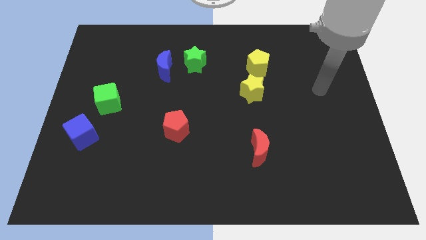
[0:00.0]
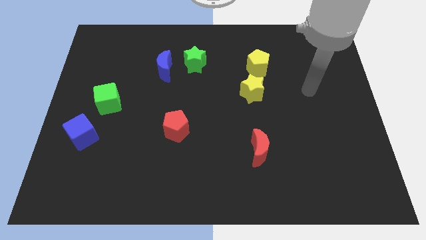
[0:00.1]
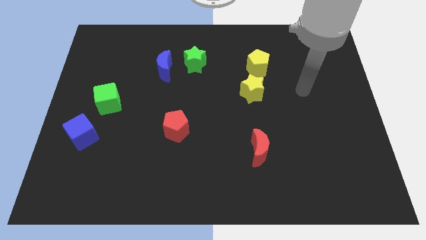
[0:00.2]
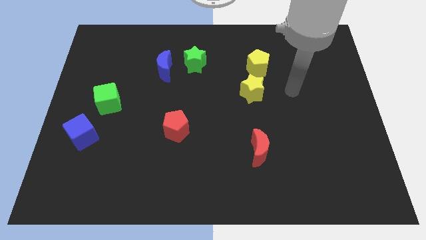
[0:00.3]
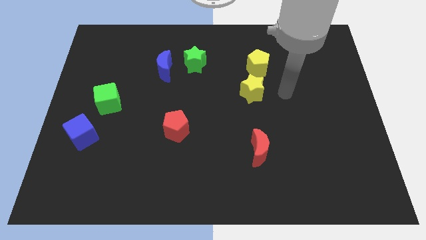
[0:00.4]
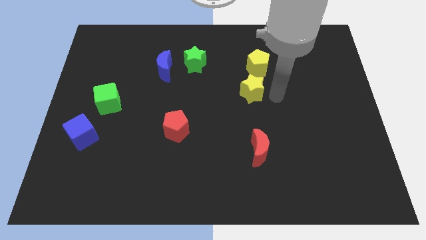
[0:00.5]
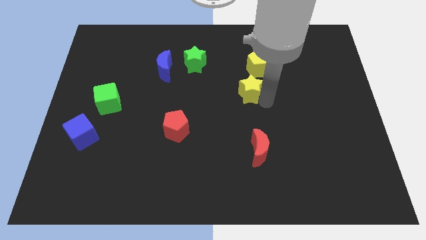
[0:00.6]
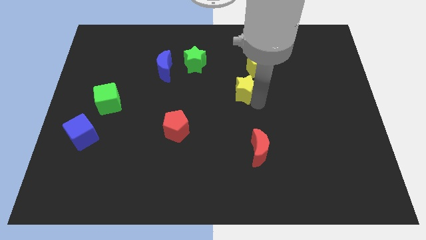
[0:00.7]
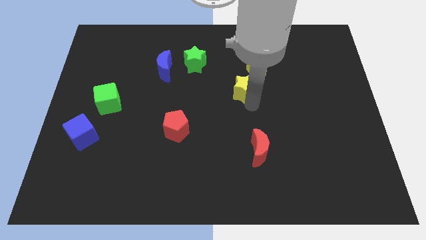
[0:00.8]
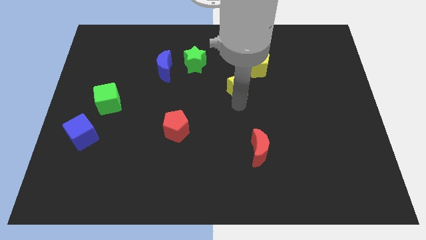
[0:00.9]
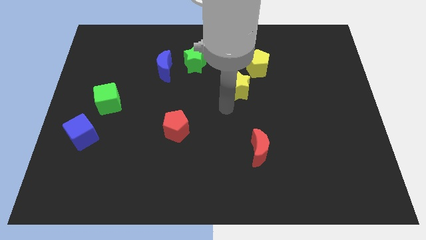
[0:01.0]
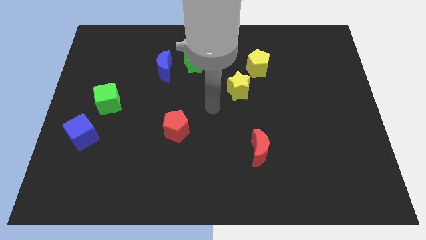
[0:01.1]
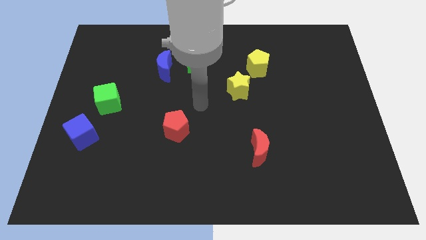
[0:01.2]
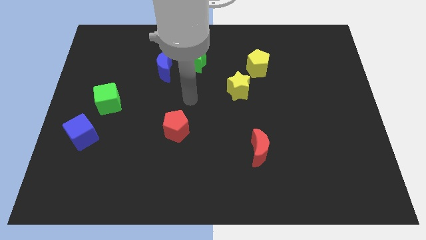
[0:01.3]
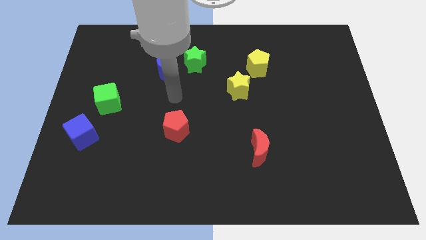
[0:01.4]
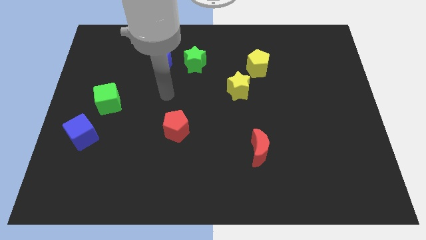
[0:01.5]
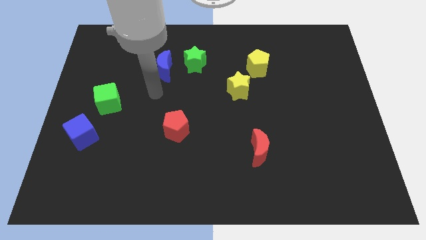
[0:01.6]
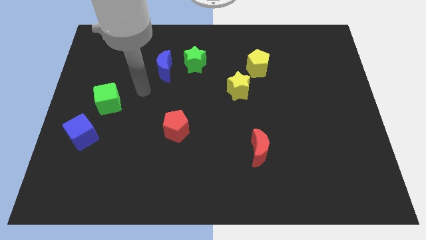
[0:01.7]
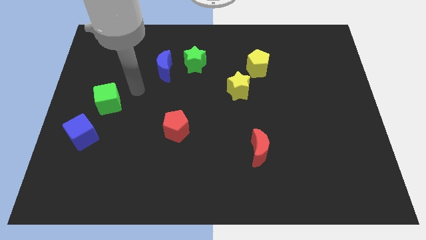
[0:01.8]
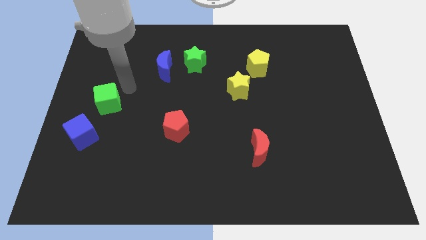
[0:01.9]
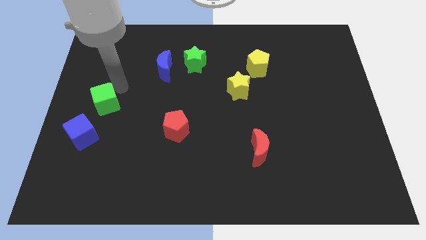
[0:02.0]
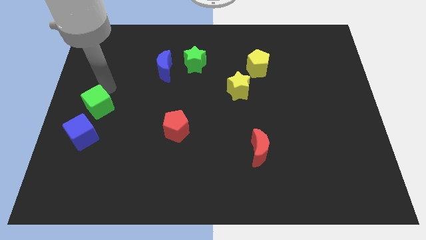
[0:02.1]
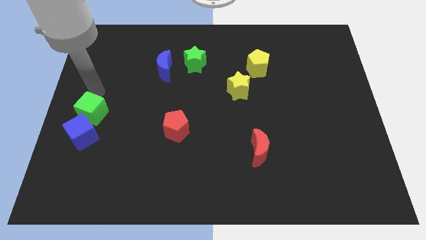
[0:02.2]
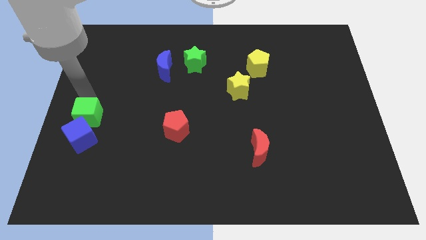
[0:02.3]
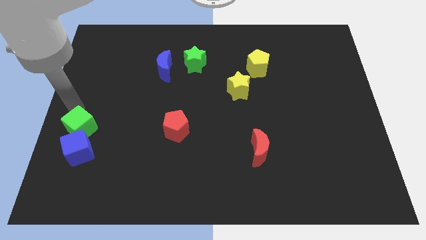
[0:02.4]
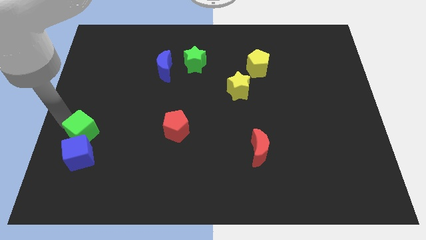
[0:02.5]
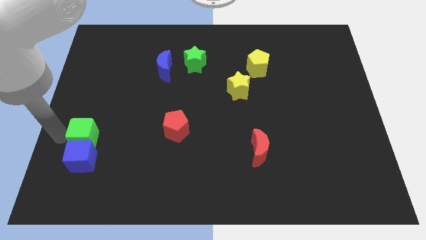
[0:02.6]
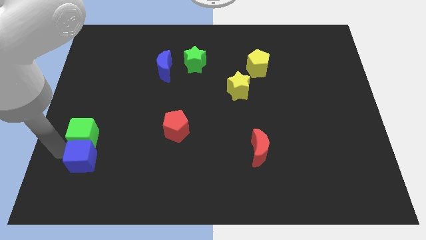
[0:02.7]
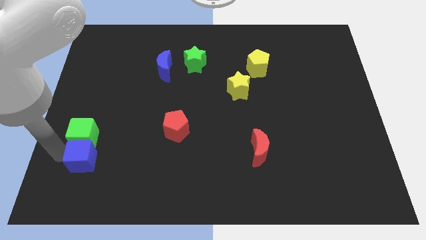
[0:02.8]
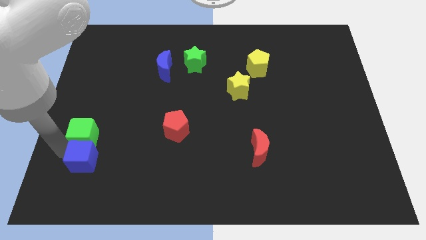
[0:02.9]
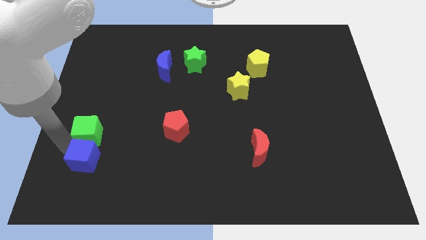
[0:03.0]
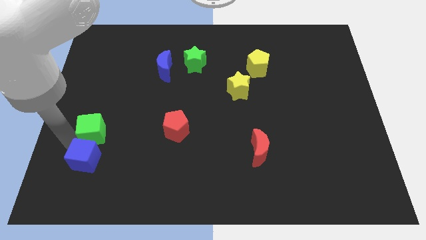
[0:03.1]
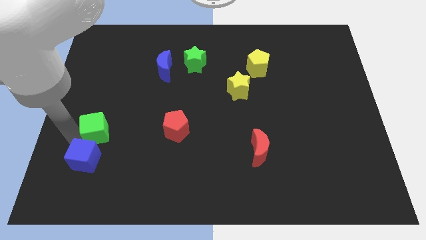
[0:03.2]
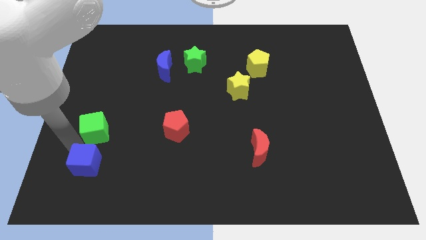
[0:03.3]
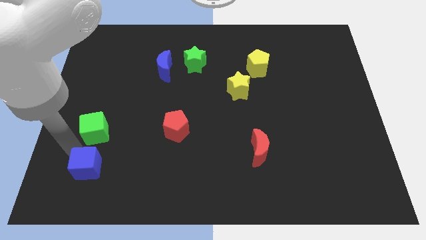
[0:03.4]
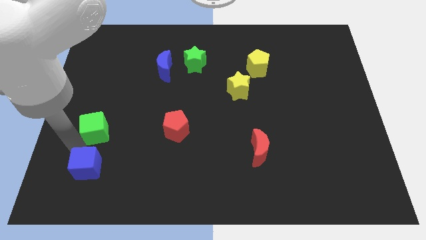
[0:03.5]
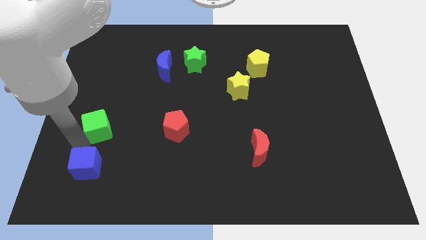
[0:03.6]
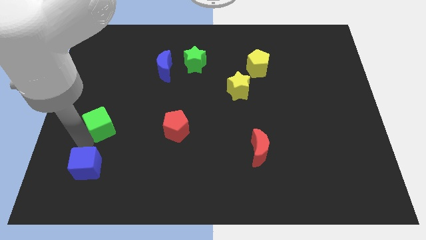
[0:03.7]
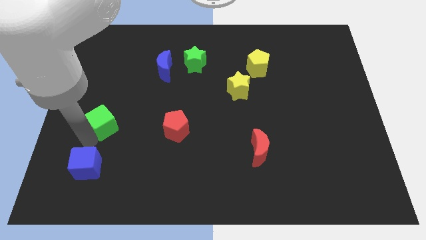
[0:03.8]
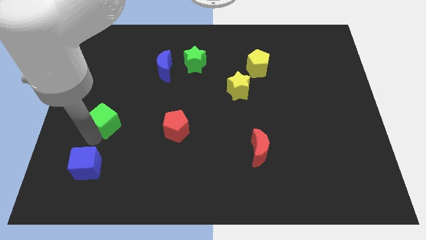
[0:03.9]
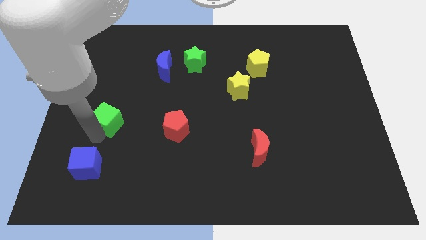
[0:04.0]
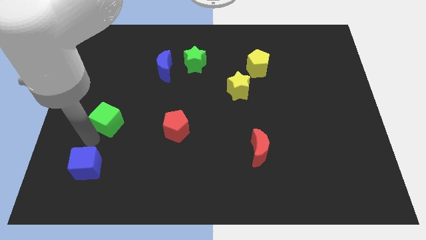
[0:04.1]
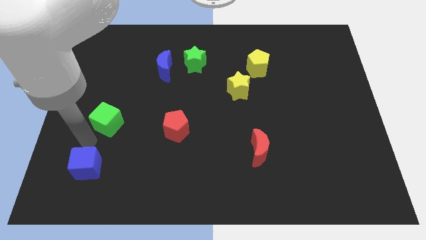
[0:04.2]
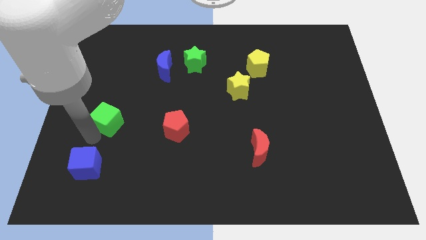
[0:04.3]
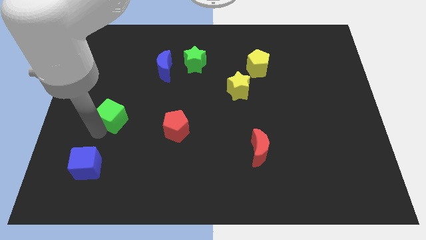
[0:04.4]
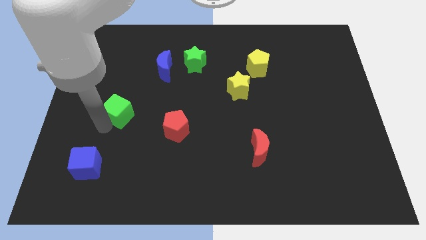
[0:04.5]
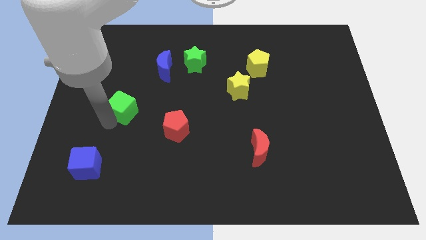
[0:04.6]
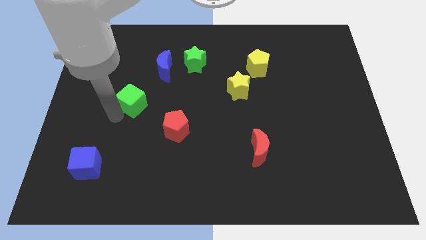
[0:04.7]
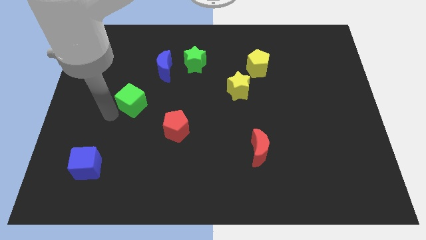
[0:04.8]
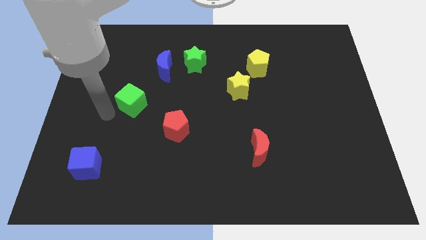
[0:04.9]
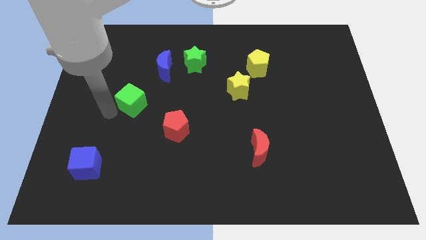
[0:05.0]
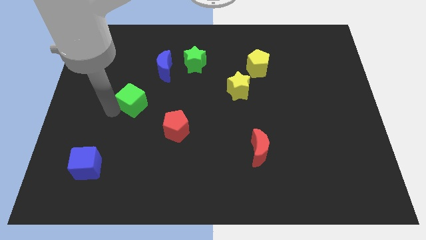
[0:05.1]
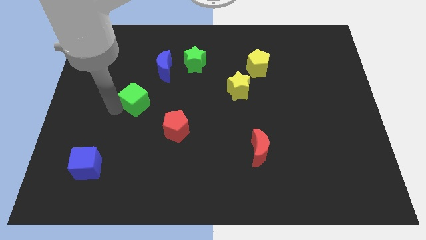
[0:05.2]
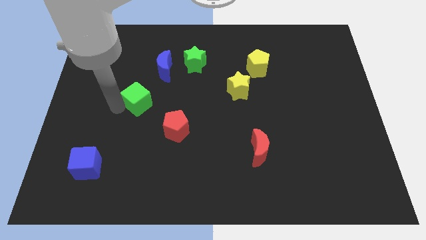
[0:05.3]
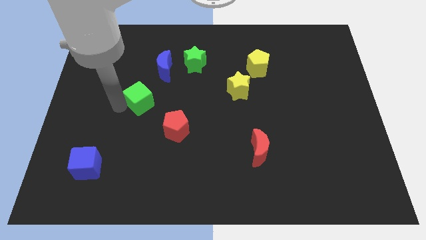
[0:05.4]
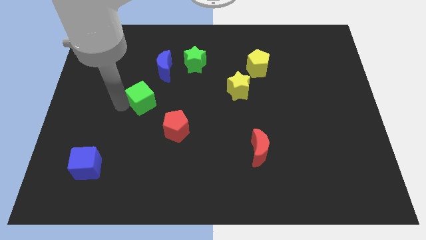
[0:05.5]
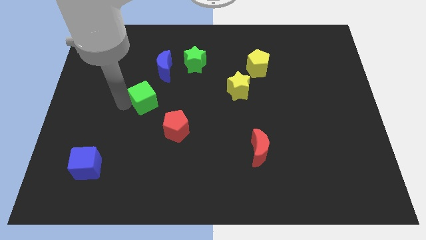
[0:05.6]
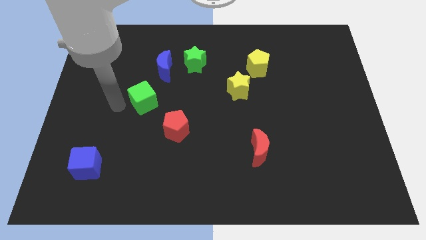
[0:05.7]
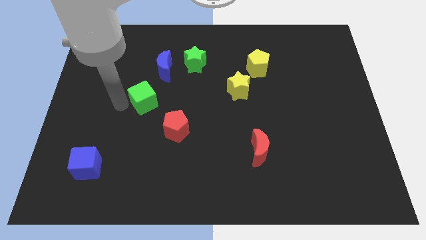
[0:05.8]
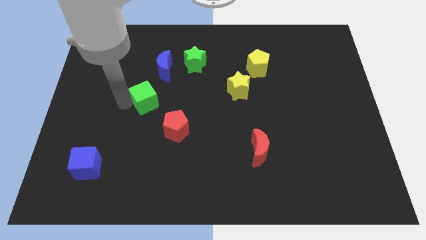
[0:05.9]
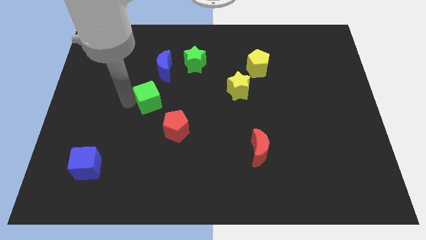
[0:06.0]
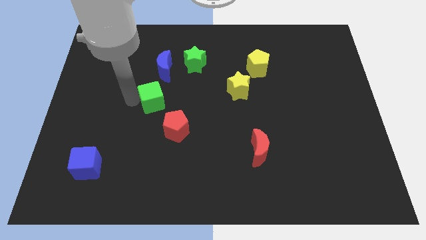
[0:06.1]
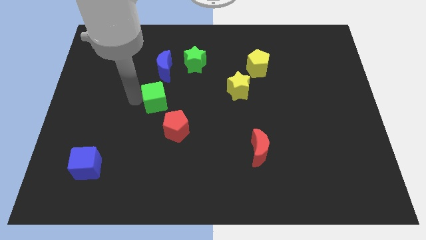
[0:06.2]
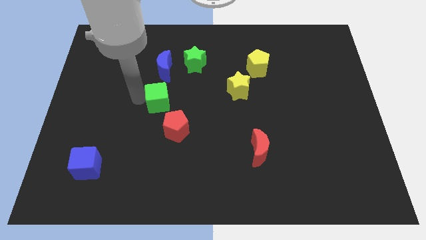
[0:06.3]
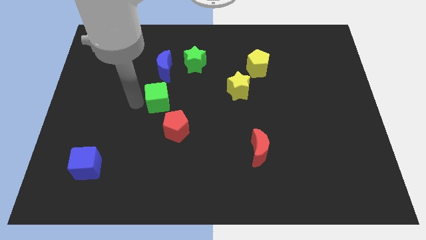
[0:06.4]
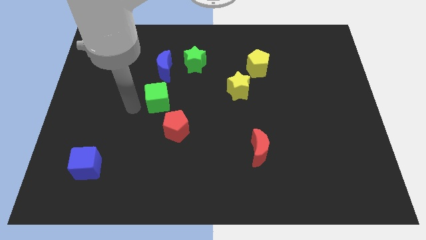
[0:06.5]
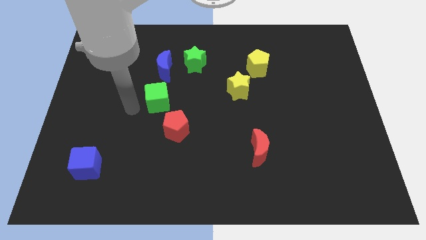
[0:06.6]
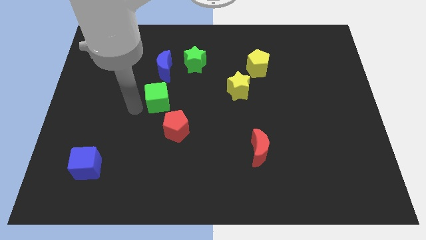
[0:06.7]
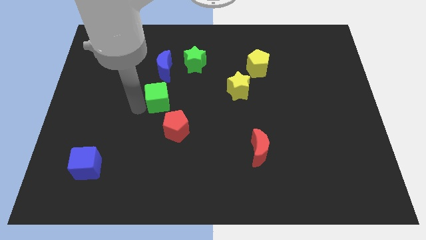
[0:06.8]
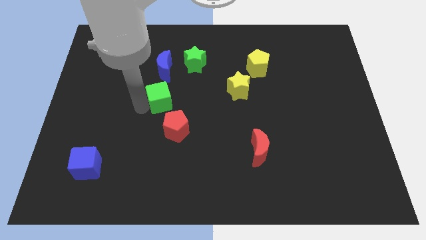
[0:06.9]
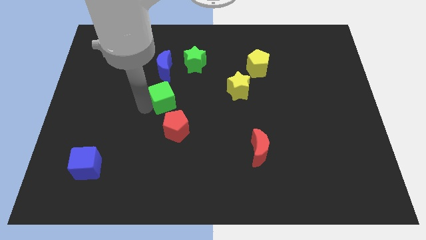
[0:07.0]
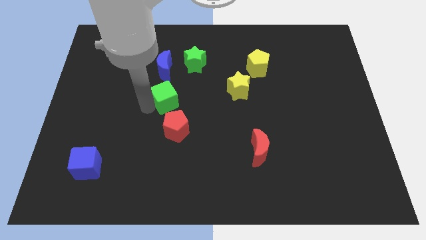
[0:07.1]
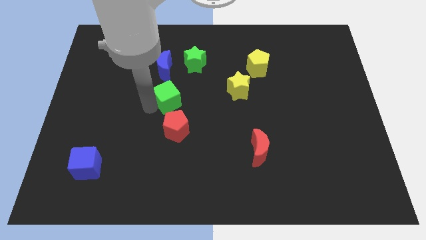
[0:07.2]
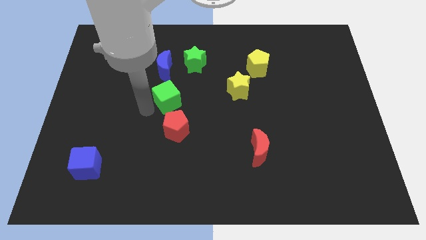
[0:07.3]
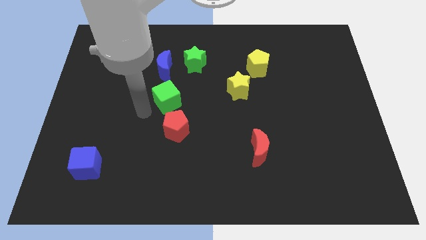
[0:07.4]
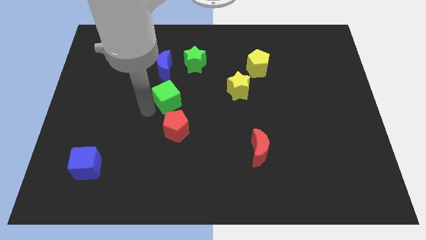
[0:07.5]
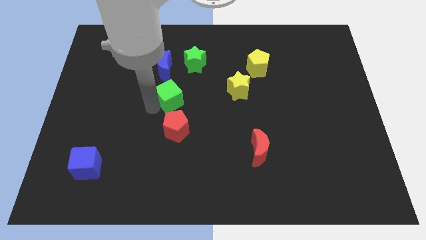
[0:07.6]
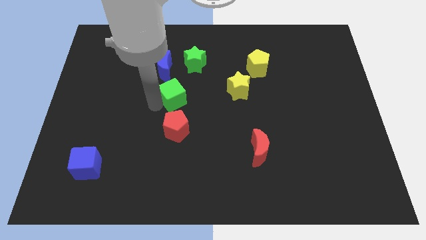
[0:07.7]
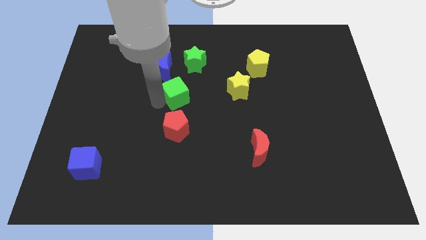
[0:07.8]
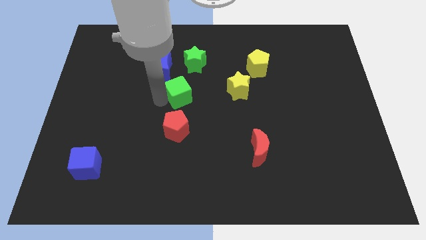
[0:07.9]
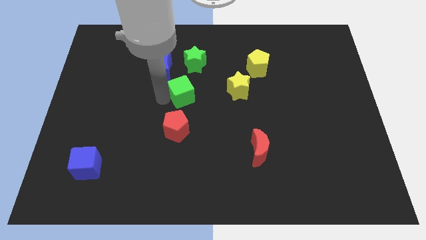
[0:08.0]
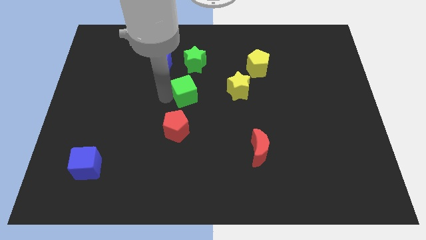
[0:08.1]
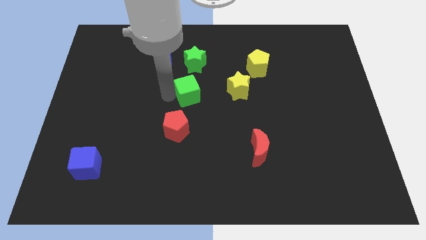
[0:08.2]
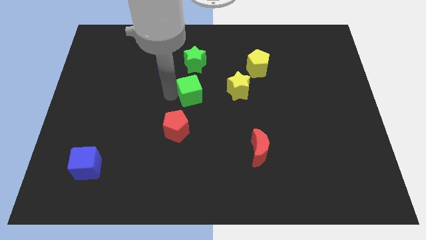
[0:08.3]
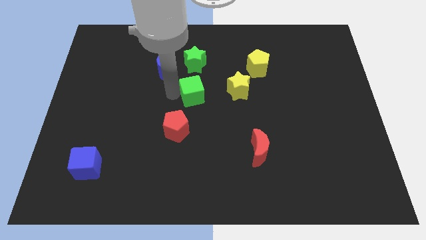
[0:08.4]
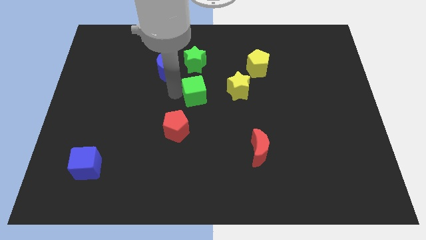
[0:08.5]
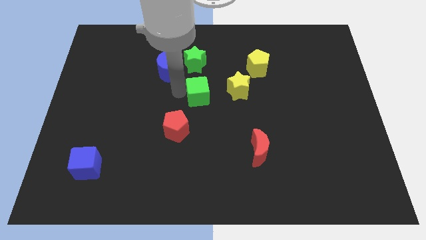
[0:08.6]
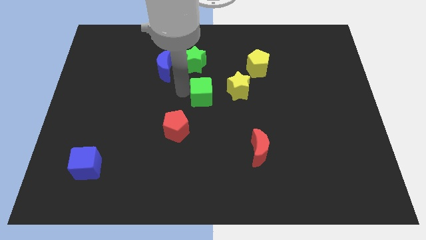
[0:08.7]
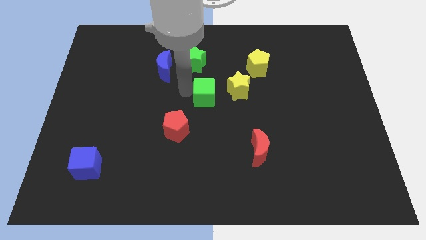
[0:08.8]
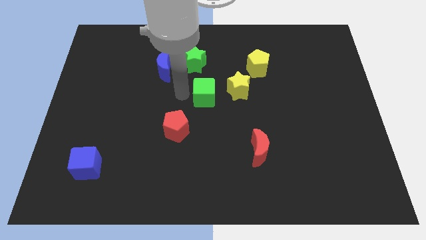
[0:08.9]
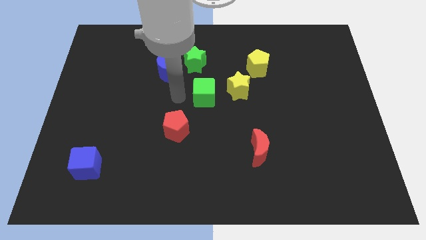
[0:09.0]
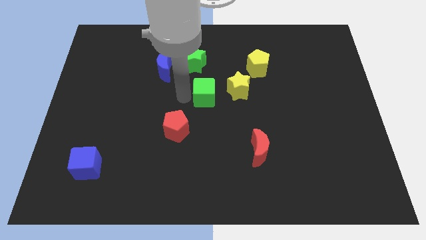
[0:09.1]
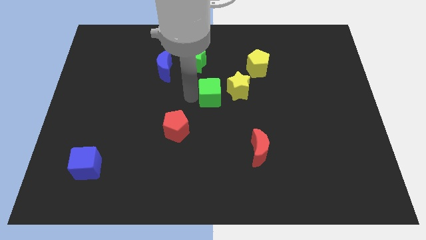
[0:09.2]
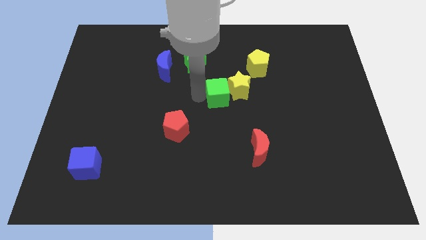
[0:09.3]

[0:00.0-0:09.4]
put the green cube towards the yellow star
